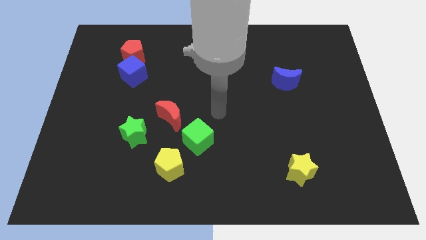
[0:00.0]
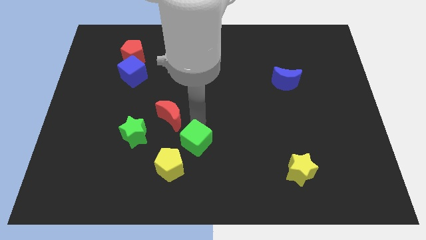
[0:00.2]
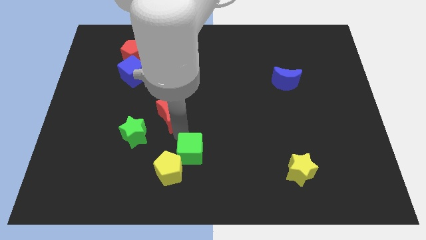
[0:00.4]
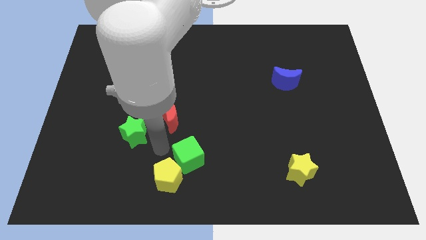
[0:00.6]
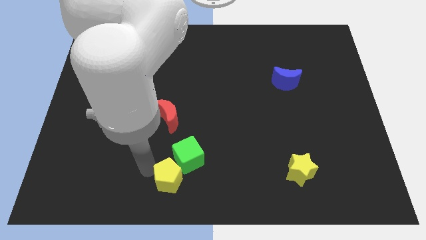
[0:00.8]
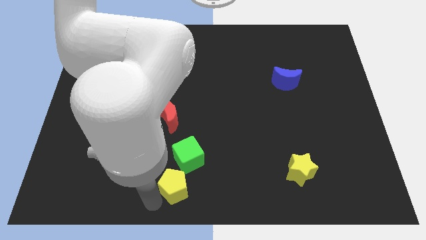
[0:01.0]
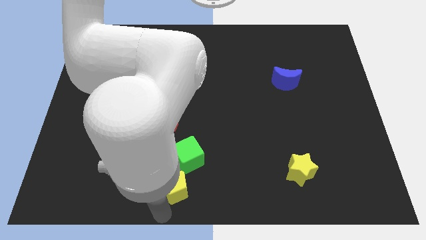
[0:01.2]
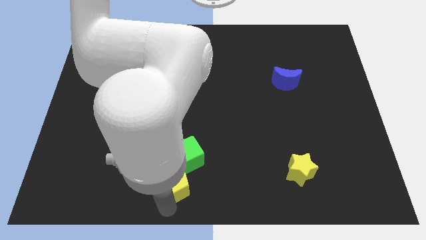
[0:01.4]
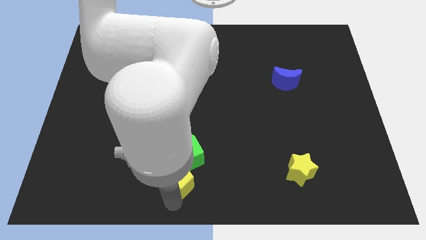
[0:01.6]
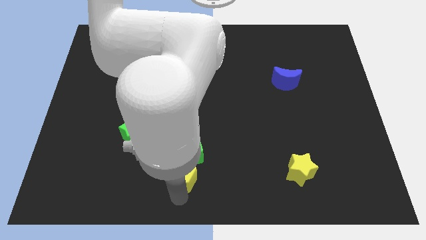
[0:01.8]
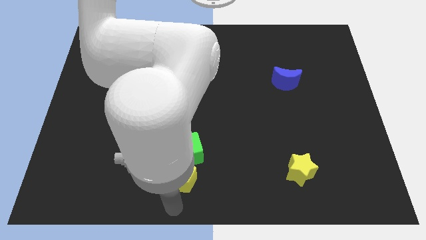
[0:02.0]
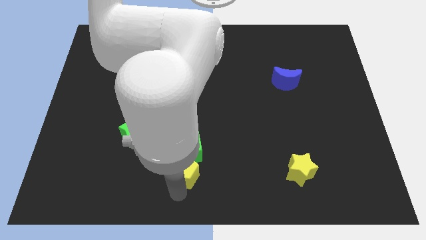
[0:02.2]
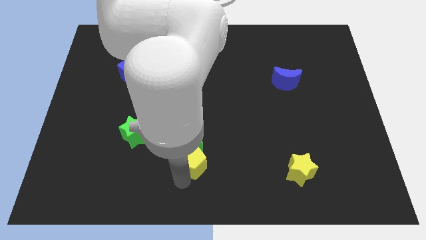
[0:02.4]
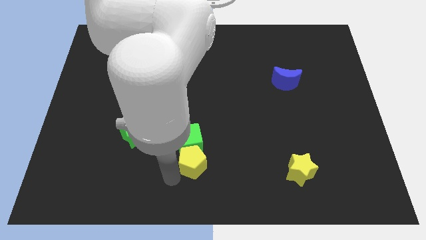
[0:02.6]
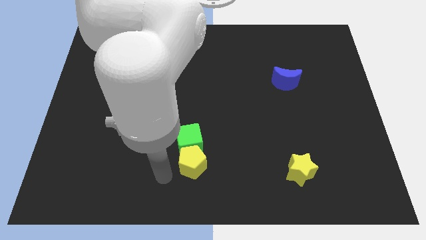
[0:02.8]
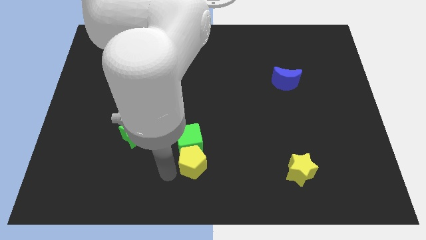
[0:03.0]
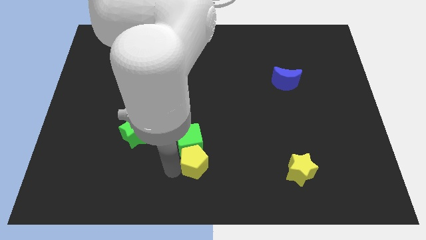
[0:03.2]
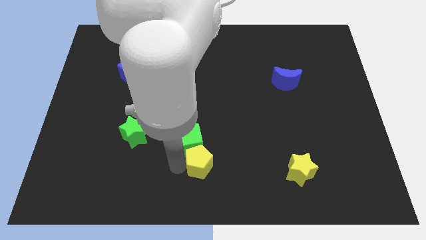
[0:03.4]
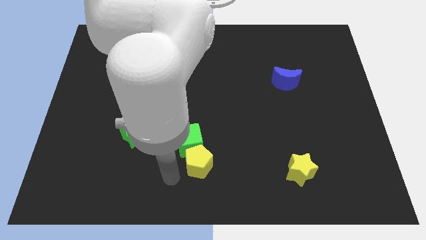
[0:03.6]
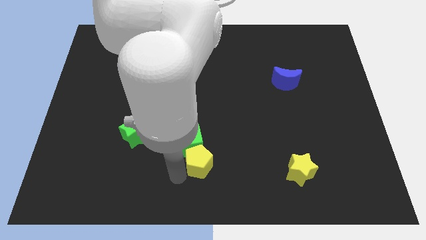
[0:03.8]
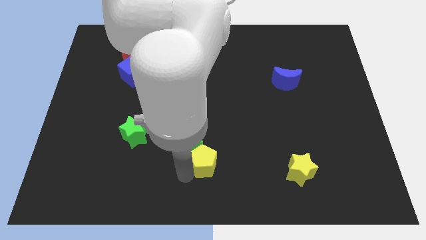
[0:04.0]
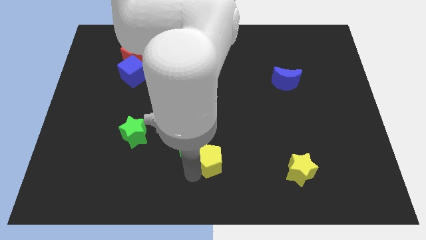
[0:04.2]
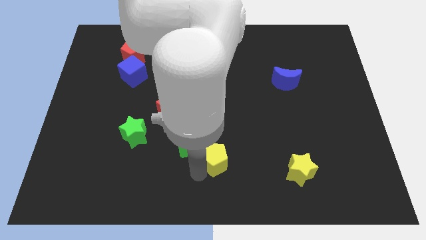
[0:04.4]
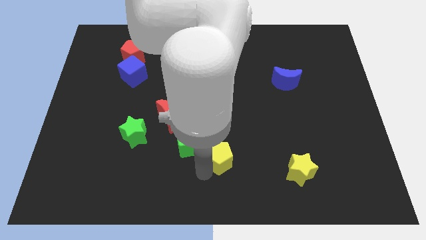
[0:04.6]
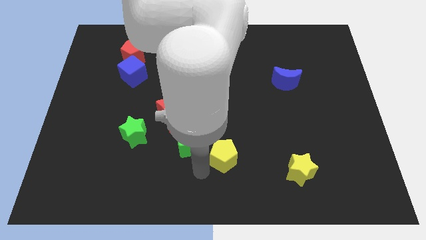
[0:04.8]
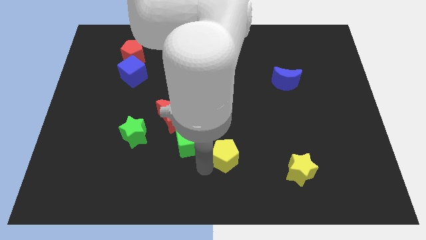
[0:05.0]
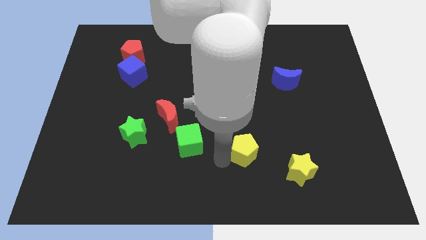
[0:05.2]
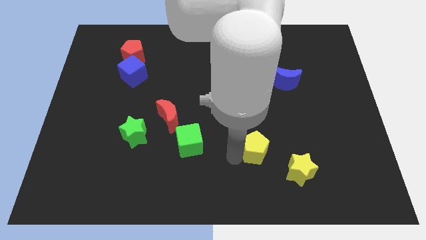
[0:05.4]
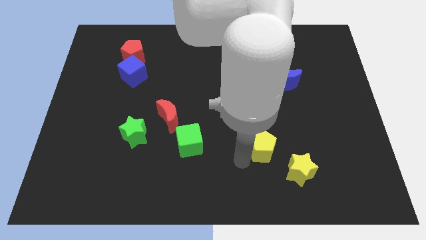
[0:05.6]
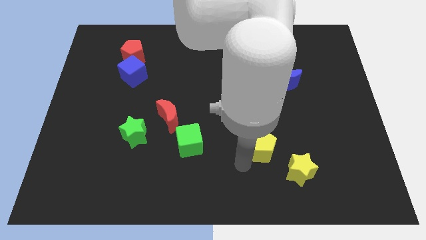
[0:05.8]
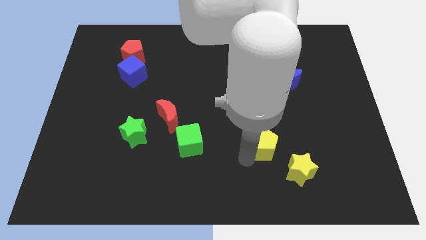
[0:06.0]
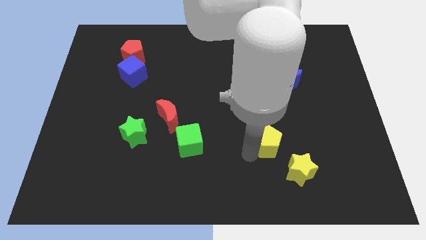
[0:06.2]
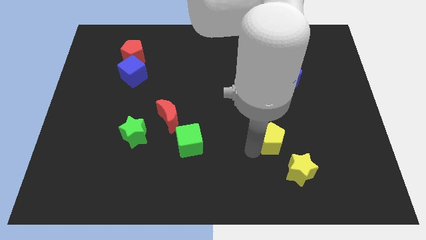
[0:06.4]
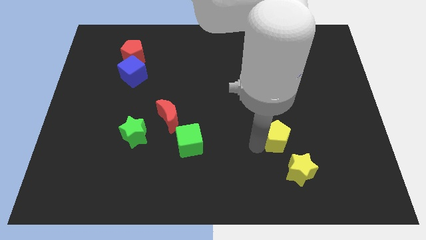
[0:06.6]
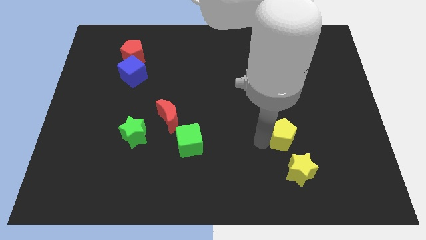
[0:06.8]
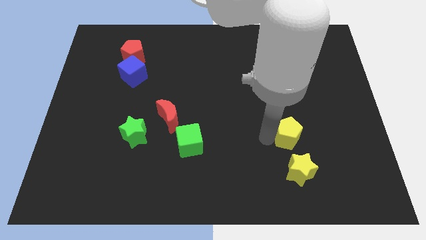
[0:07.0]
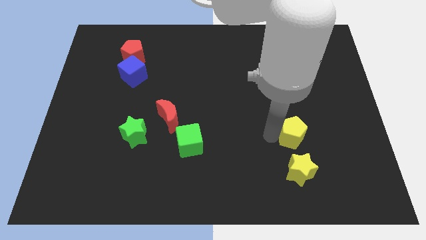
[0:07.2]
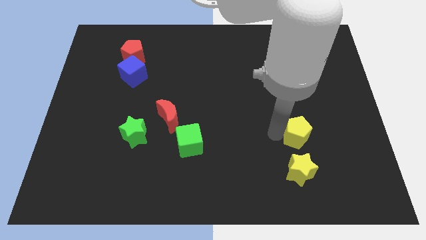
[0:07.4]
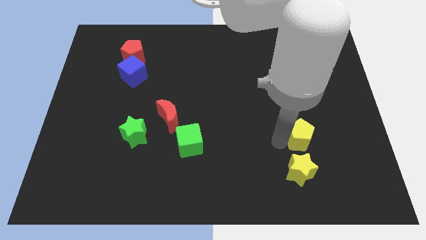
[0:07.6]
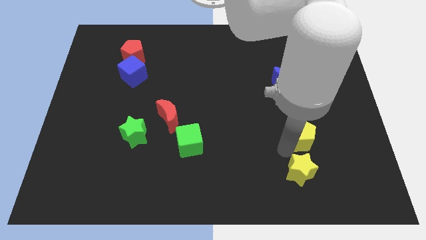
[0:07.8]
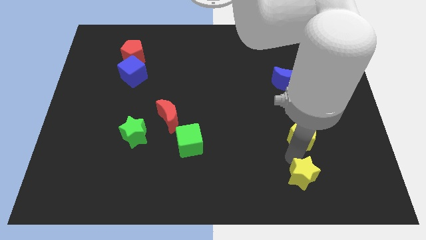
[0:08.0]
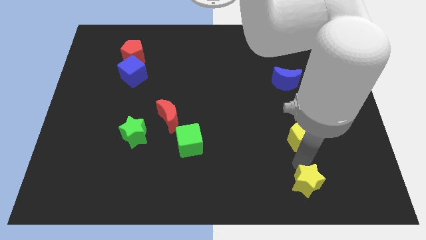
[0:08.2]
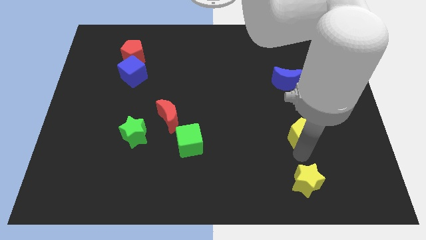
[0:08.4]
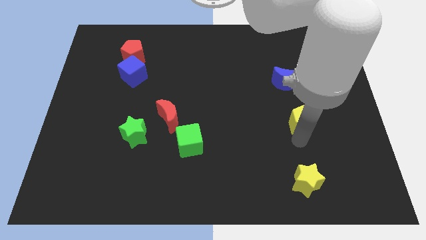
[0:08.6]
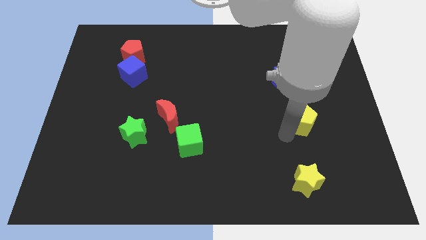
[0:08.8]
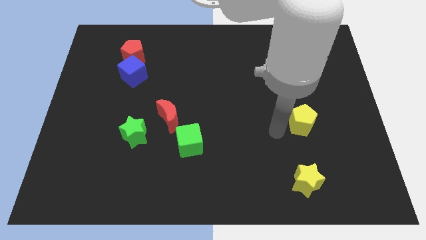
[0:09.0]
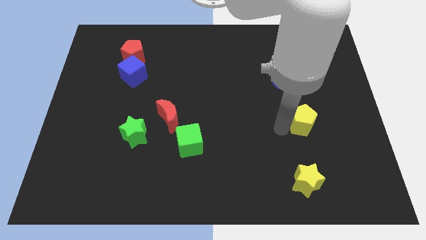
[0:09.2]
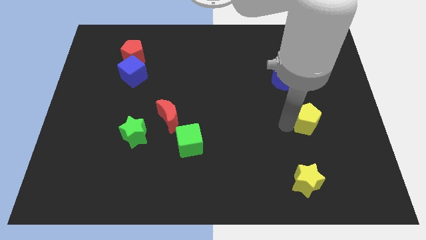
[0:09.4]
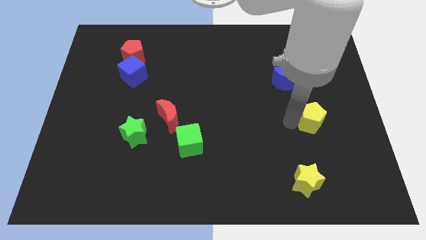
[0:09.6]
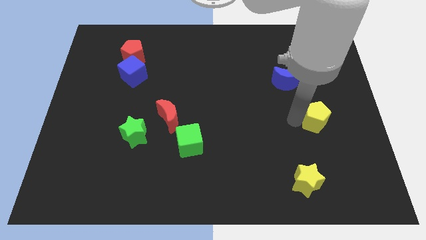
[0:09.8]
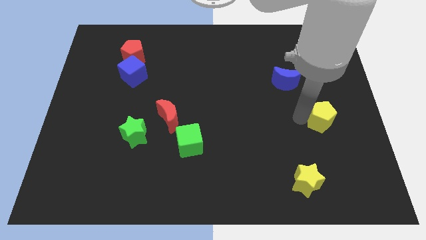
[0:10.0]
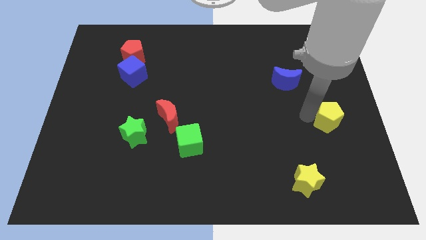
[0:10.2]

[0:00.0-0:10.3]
move the yellow pentagon to the center right

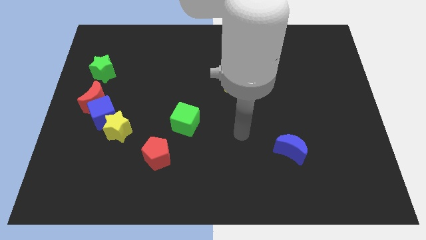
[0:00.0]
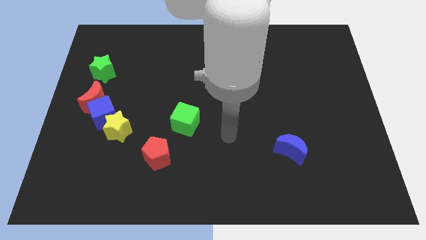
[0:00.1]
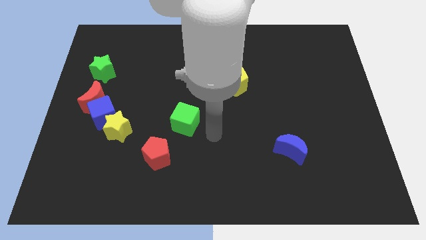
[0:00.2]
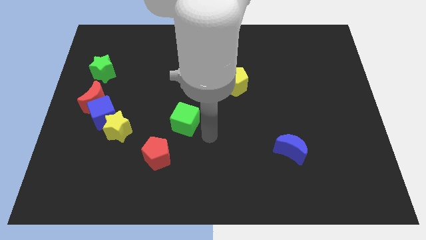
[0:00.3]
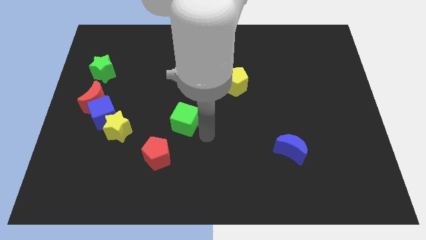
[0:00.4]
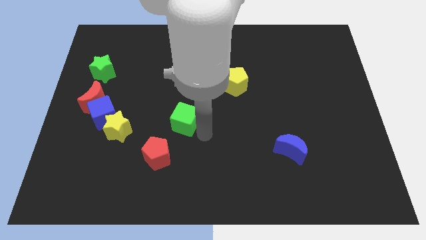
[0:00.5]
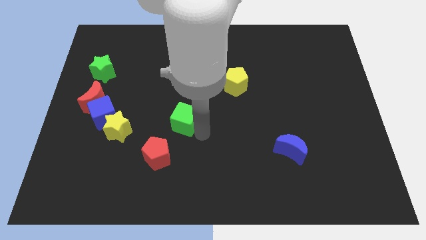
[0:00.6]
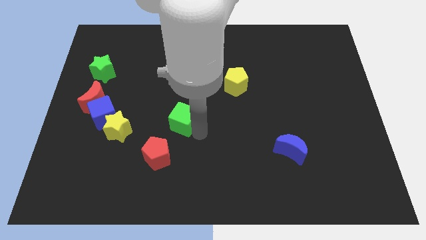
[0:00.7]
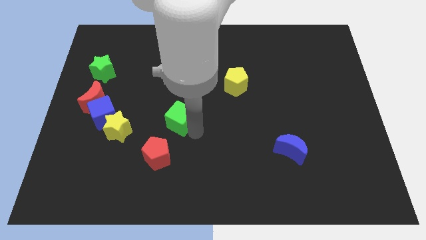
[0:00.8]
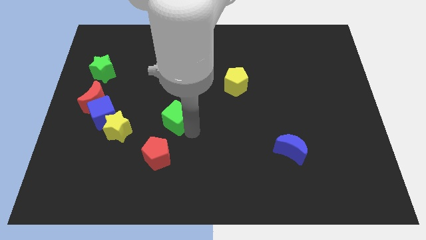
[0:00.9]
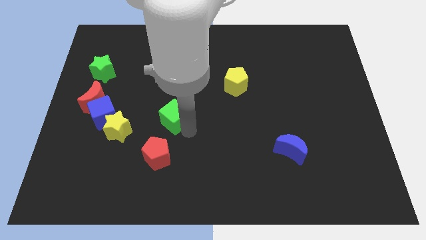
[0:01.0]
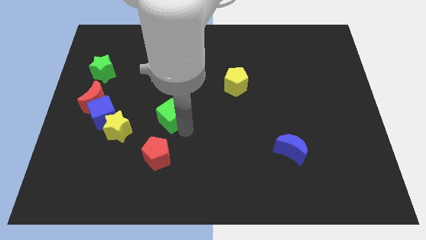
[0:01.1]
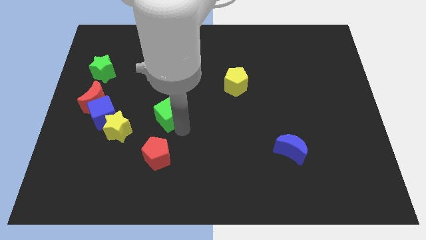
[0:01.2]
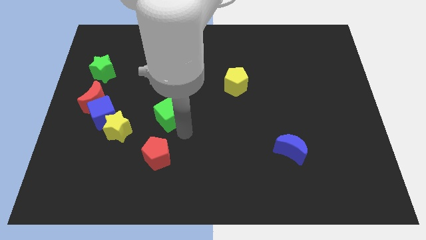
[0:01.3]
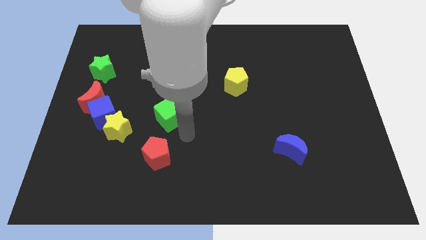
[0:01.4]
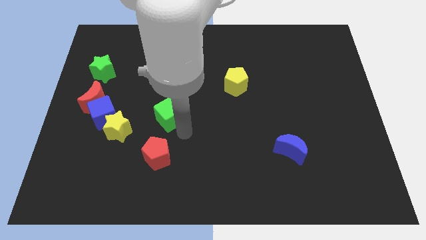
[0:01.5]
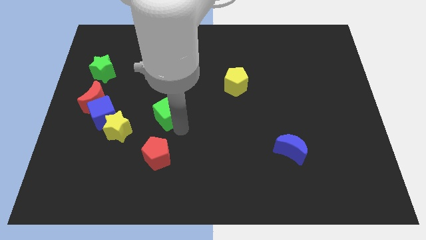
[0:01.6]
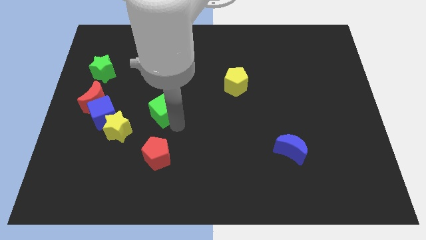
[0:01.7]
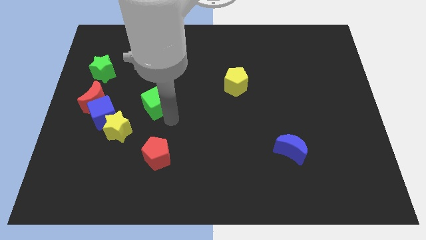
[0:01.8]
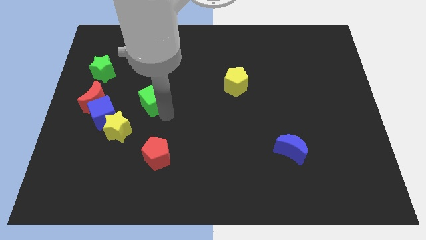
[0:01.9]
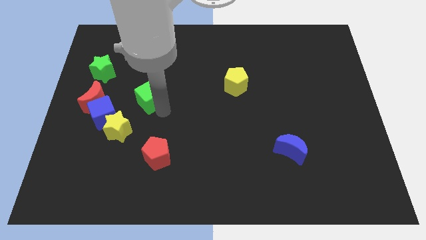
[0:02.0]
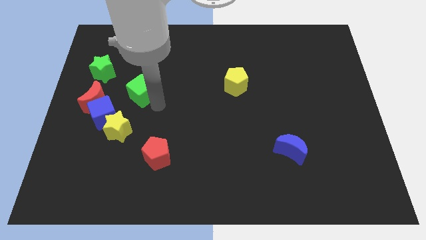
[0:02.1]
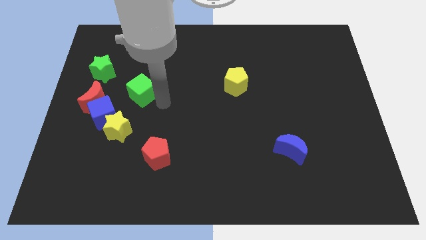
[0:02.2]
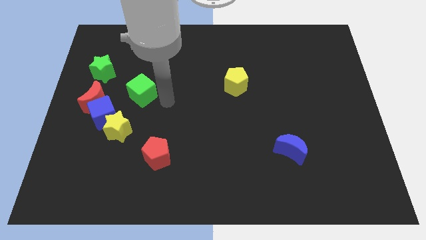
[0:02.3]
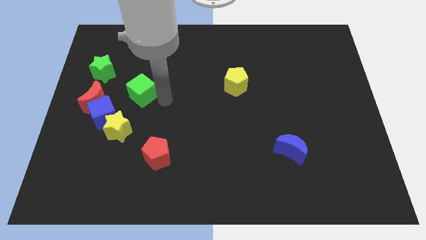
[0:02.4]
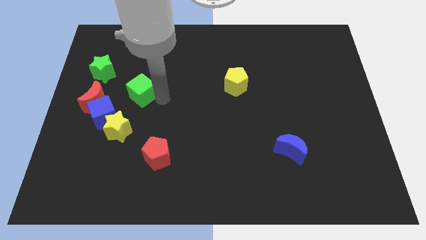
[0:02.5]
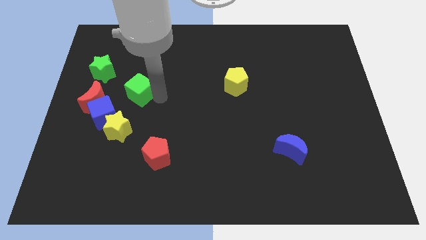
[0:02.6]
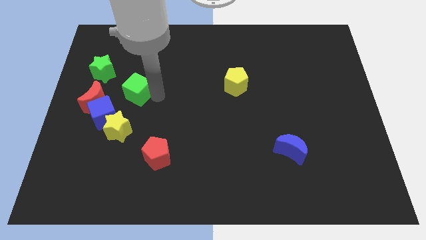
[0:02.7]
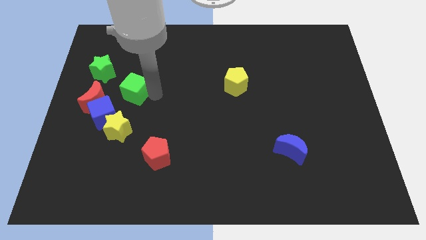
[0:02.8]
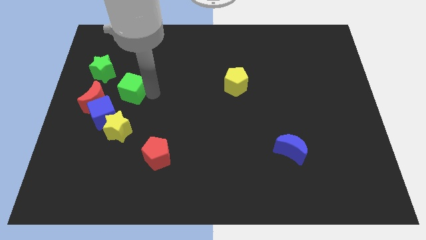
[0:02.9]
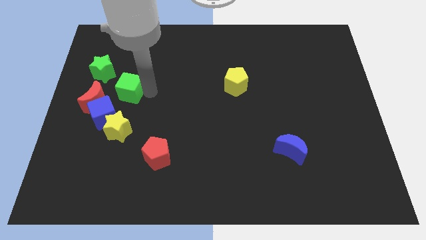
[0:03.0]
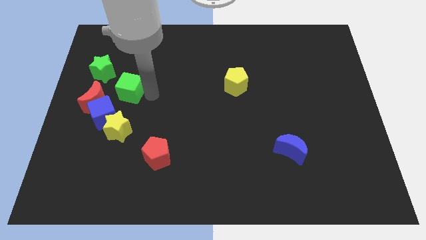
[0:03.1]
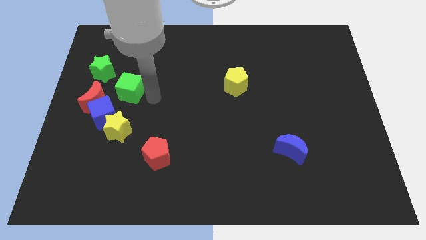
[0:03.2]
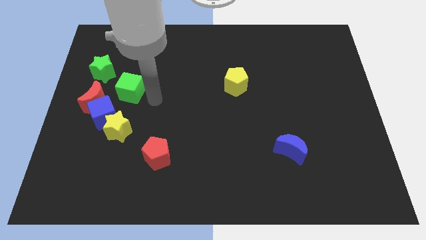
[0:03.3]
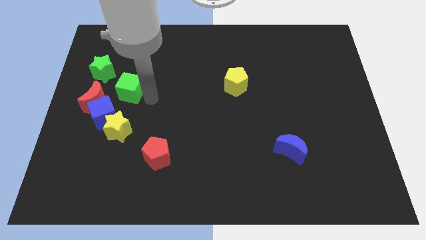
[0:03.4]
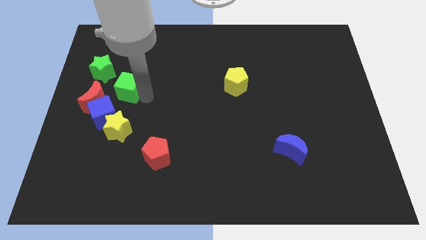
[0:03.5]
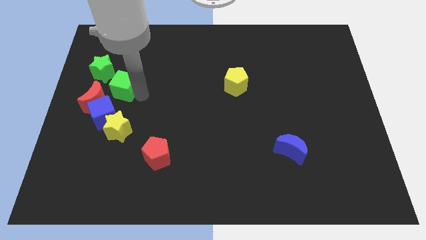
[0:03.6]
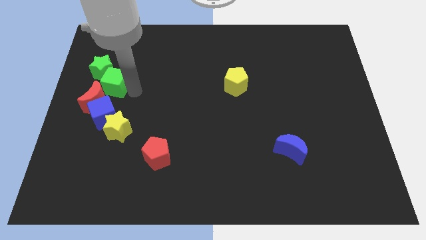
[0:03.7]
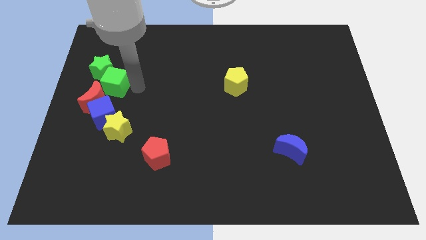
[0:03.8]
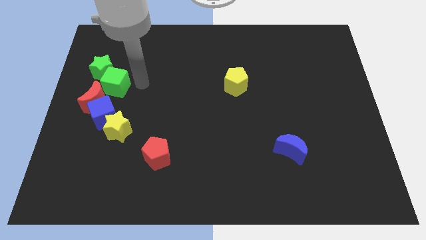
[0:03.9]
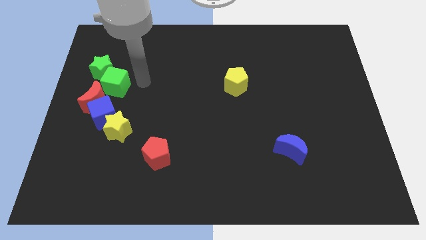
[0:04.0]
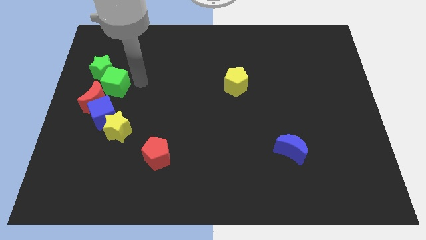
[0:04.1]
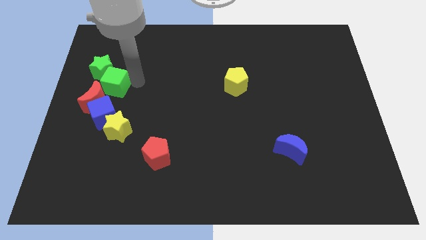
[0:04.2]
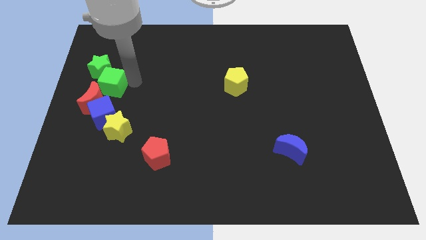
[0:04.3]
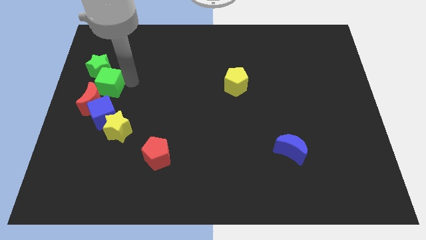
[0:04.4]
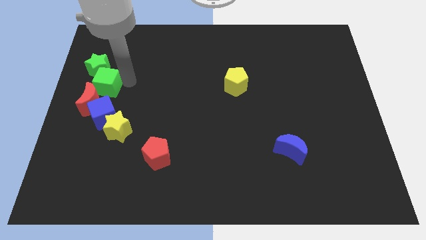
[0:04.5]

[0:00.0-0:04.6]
slide the green cube to the left side
